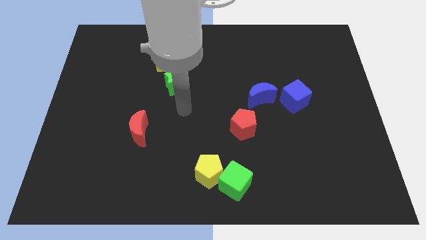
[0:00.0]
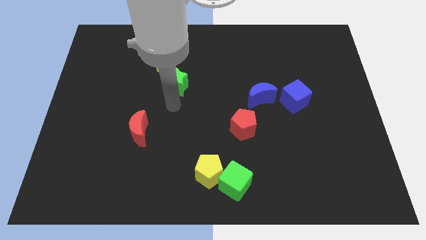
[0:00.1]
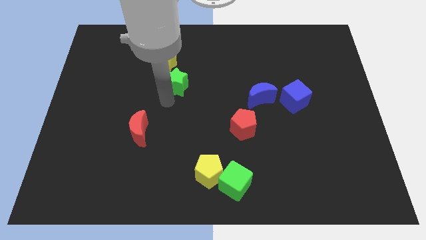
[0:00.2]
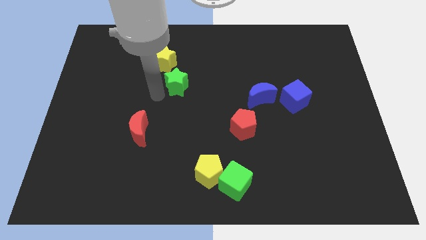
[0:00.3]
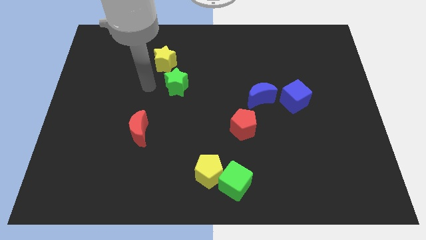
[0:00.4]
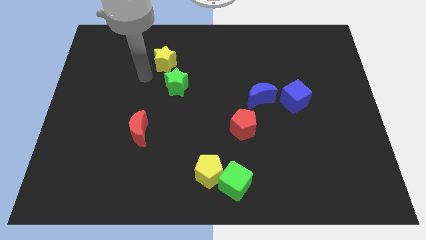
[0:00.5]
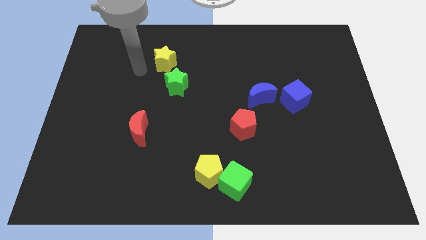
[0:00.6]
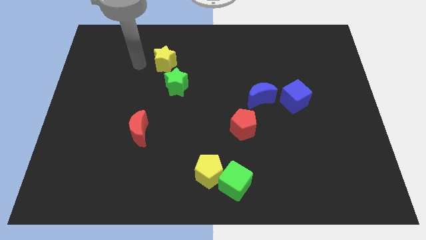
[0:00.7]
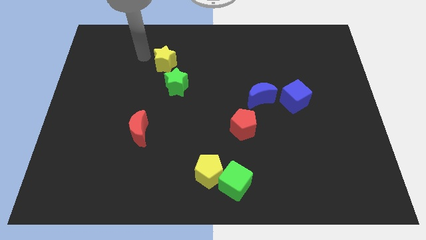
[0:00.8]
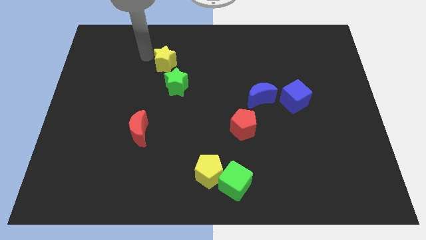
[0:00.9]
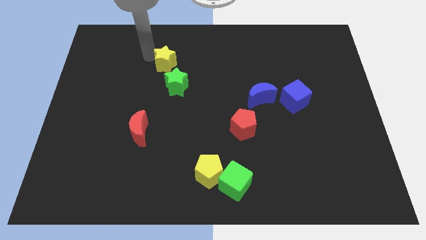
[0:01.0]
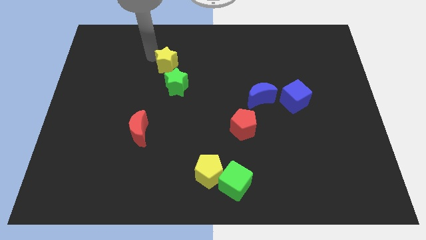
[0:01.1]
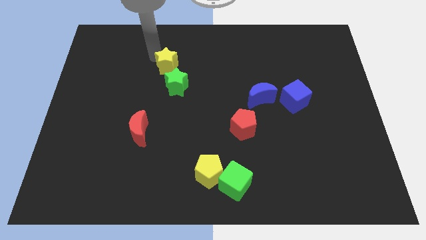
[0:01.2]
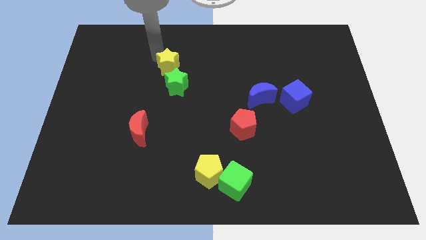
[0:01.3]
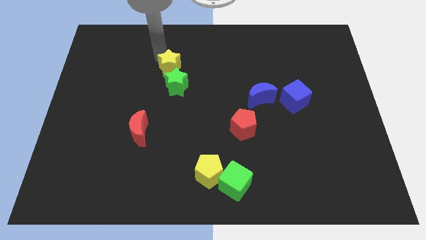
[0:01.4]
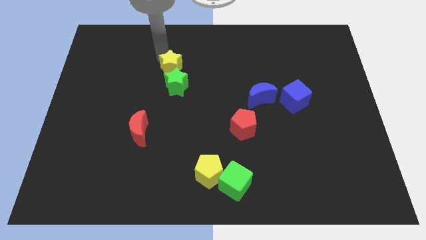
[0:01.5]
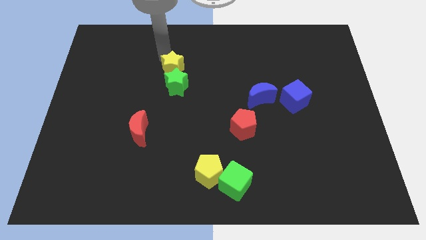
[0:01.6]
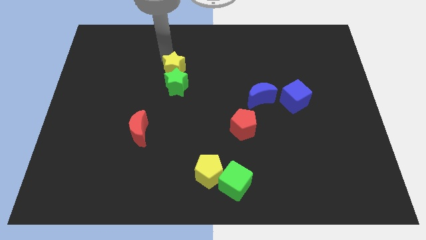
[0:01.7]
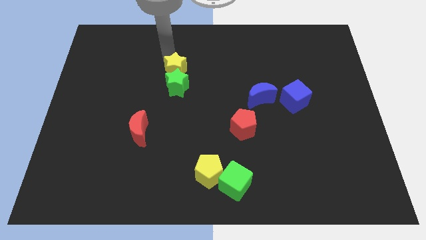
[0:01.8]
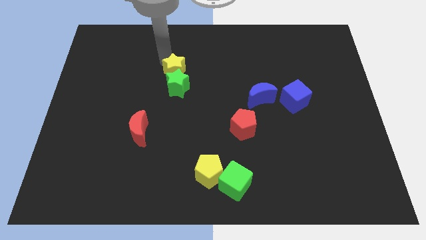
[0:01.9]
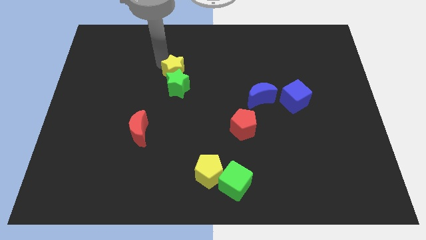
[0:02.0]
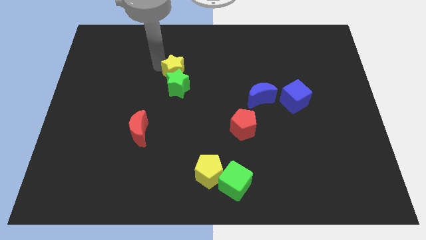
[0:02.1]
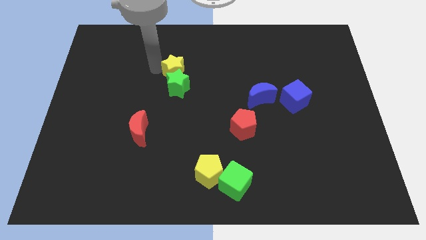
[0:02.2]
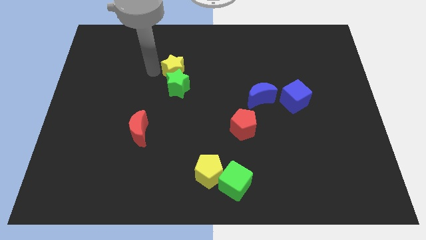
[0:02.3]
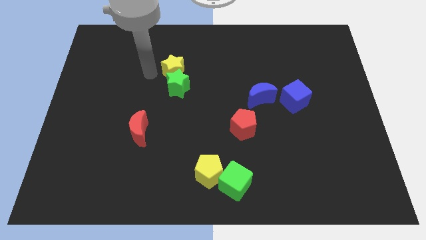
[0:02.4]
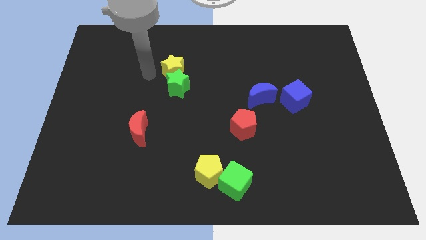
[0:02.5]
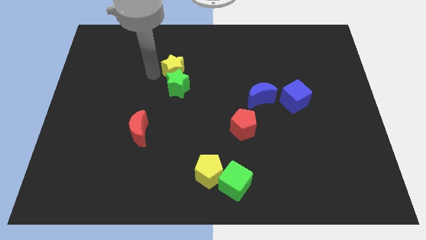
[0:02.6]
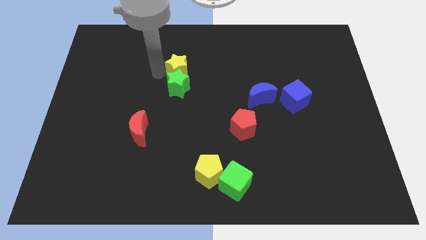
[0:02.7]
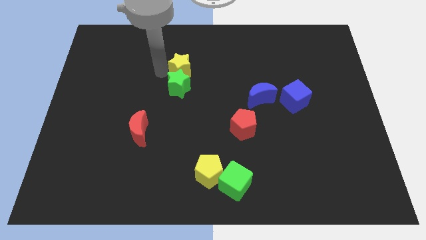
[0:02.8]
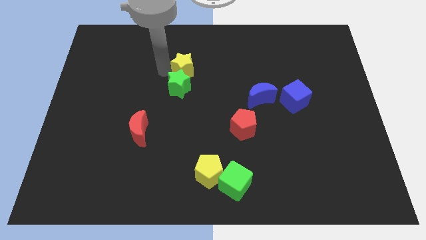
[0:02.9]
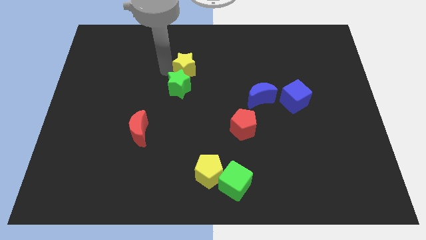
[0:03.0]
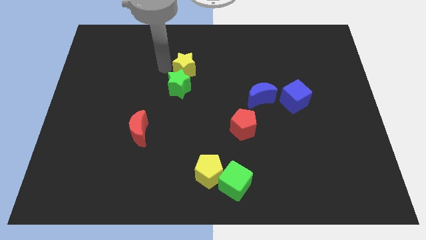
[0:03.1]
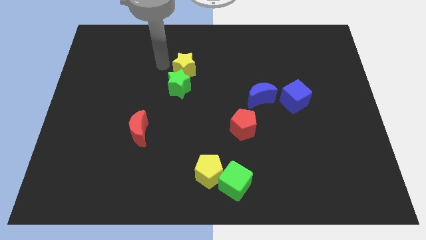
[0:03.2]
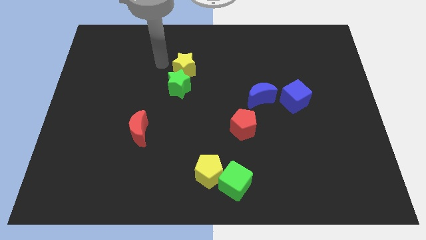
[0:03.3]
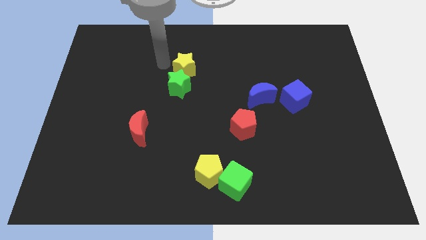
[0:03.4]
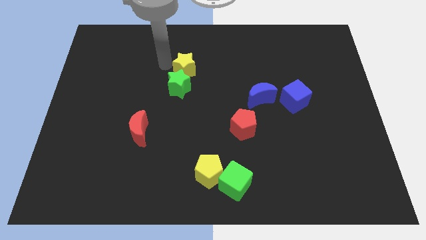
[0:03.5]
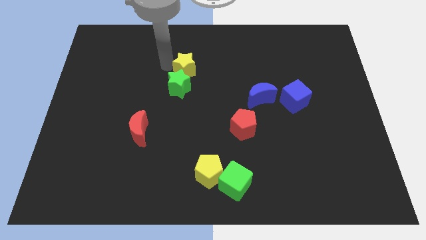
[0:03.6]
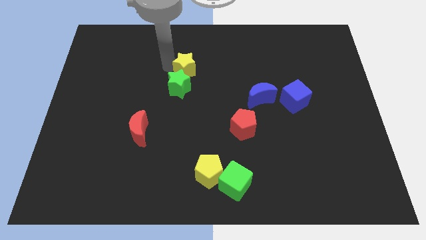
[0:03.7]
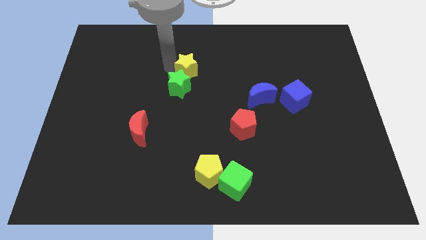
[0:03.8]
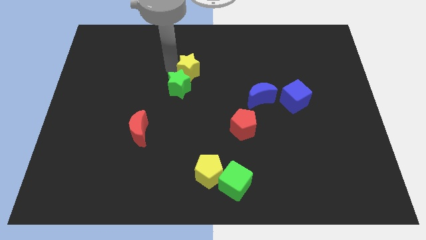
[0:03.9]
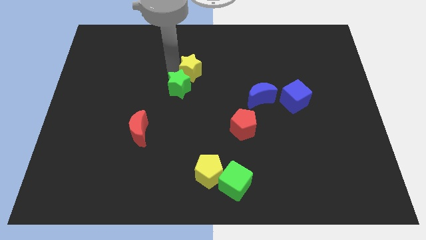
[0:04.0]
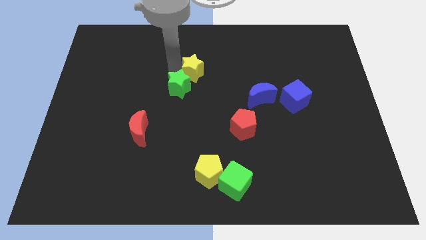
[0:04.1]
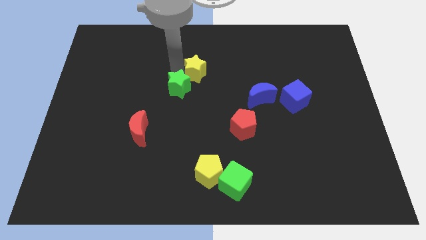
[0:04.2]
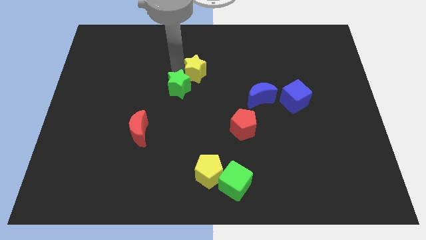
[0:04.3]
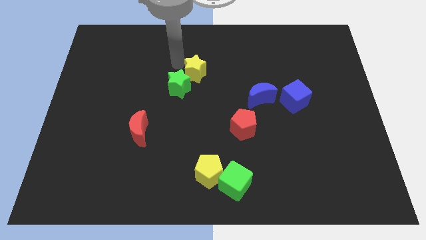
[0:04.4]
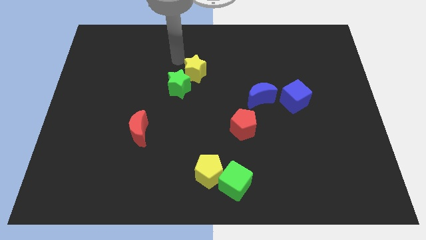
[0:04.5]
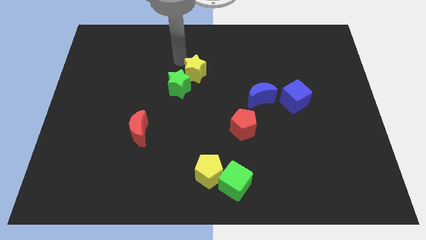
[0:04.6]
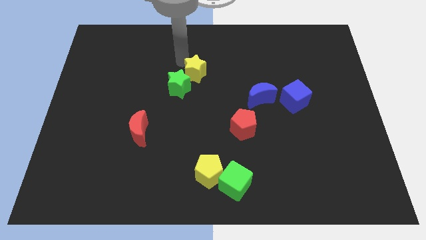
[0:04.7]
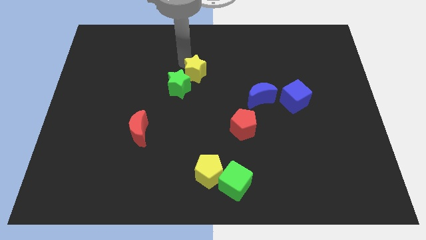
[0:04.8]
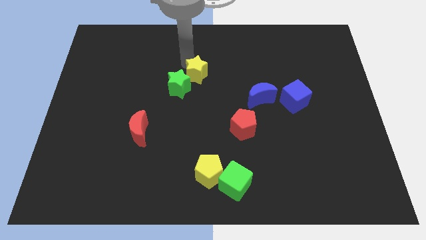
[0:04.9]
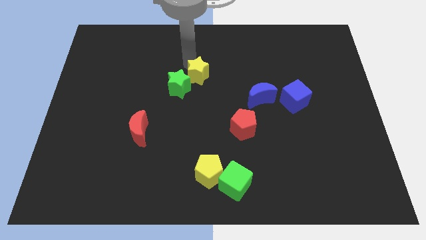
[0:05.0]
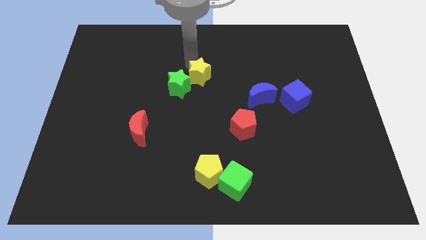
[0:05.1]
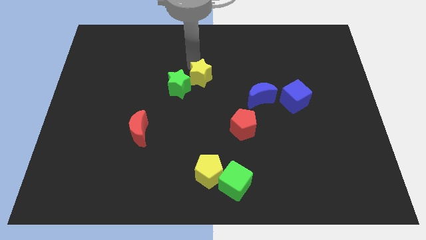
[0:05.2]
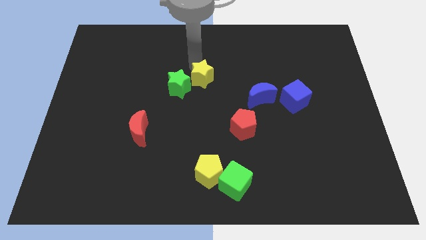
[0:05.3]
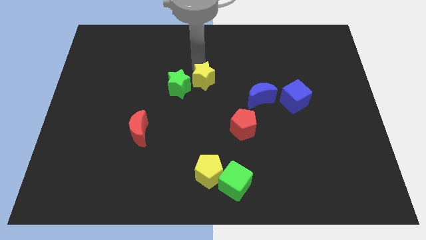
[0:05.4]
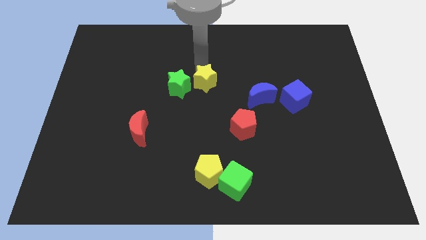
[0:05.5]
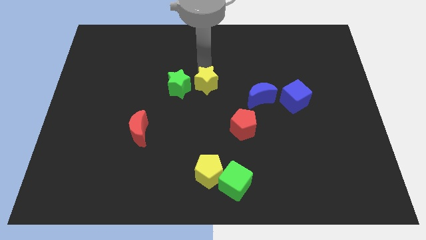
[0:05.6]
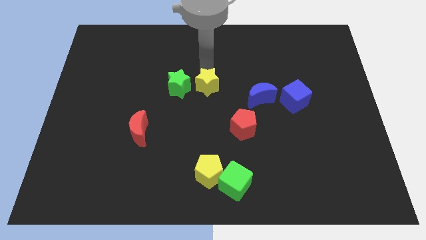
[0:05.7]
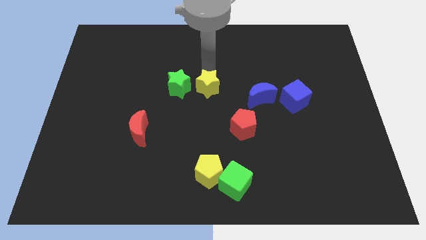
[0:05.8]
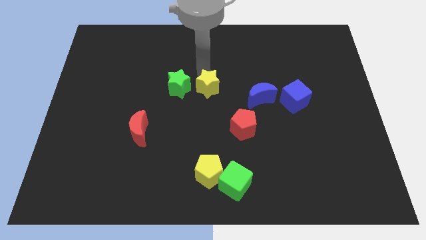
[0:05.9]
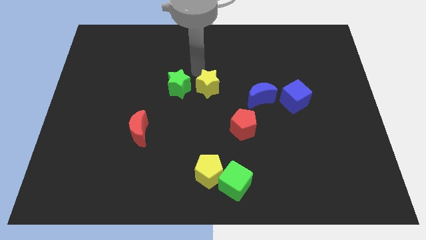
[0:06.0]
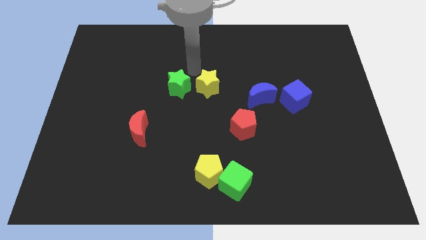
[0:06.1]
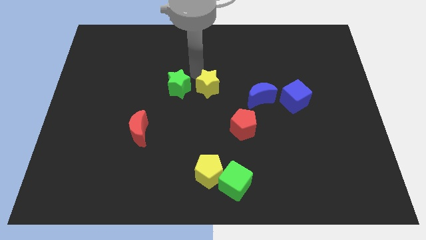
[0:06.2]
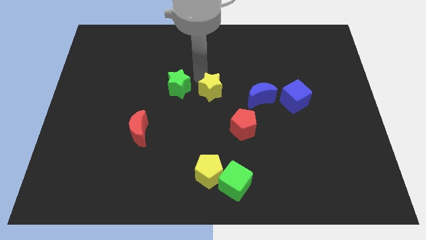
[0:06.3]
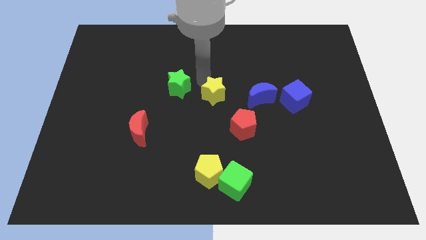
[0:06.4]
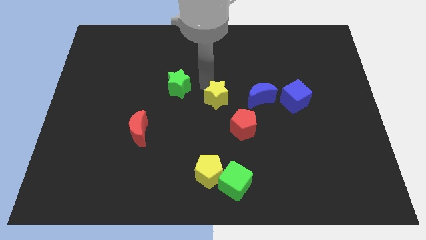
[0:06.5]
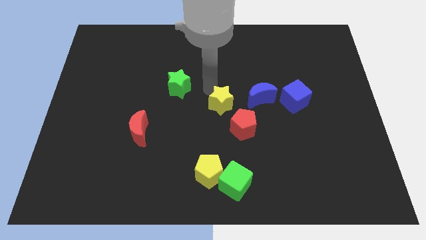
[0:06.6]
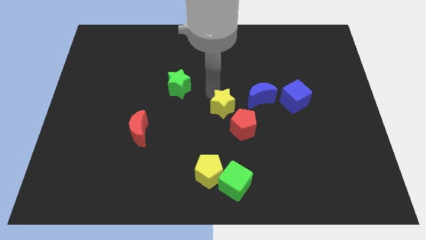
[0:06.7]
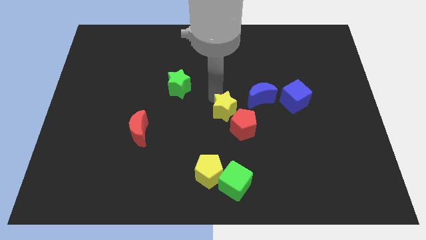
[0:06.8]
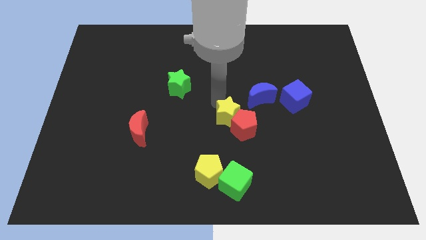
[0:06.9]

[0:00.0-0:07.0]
move the yellow star next to the red pentagon
